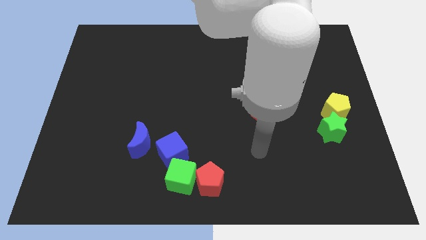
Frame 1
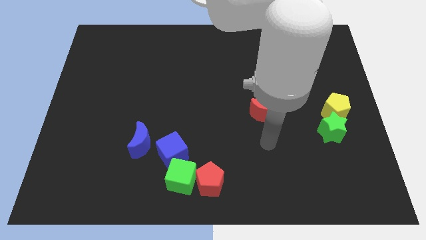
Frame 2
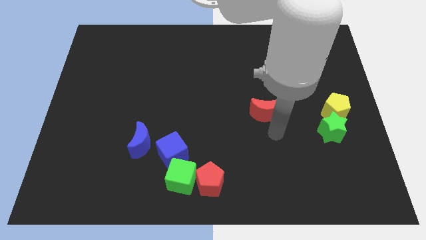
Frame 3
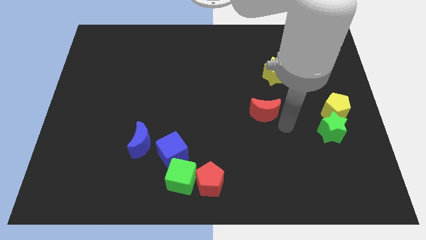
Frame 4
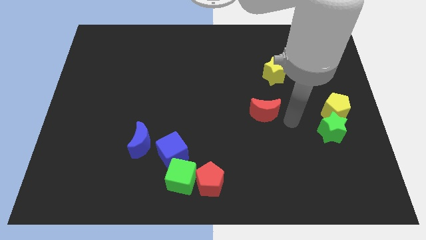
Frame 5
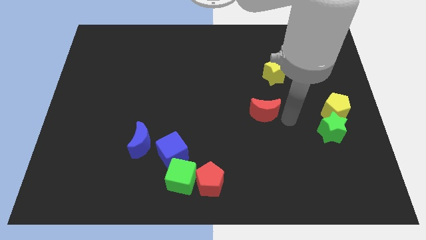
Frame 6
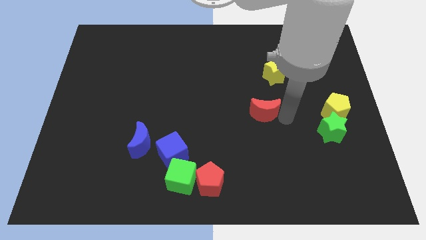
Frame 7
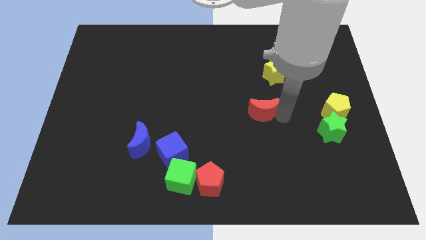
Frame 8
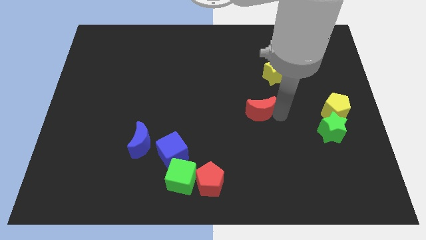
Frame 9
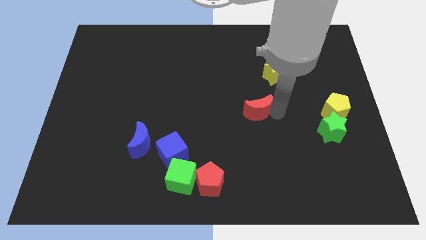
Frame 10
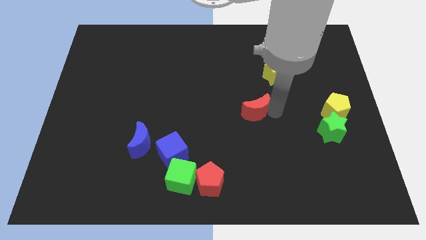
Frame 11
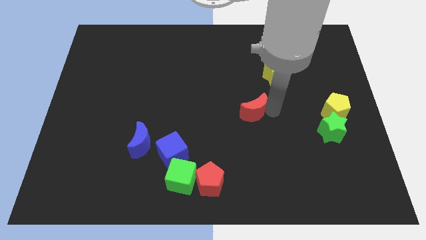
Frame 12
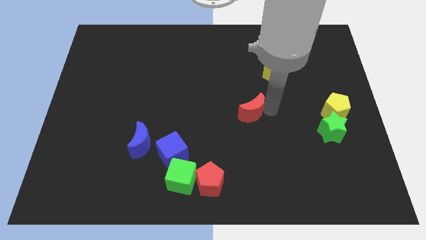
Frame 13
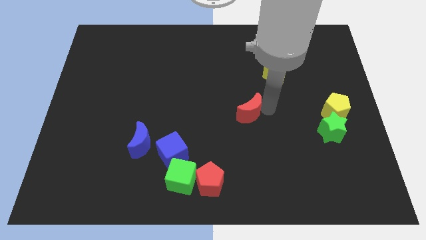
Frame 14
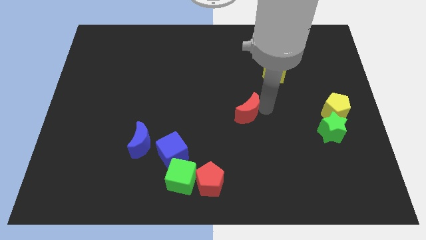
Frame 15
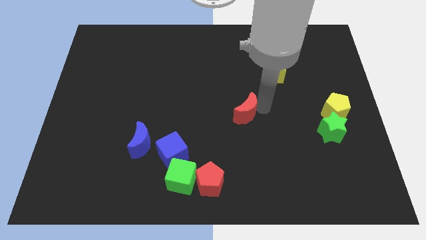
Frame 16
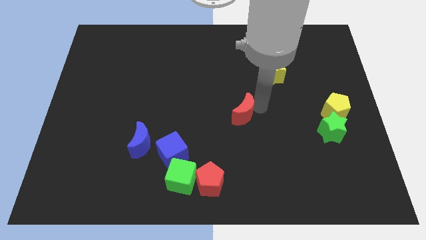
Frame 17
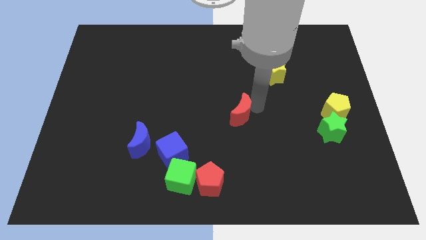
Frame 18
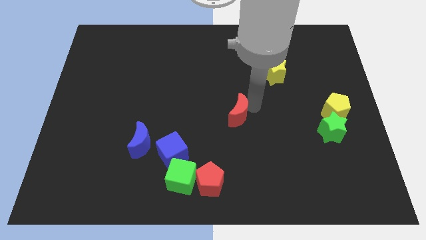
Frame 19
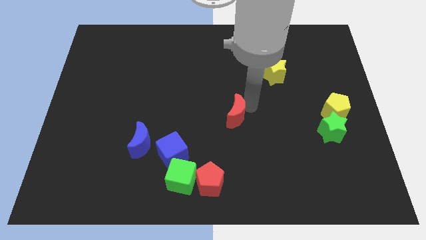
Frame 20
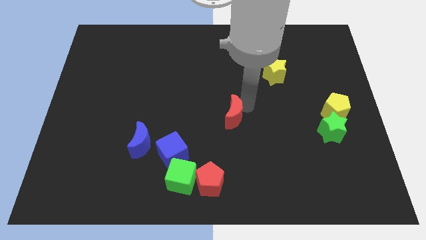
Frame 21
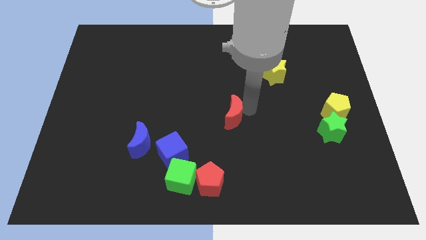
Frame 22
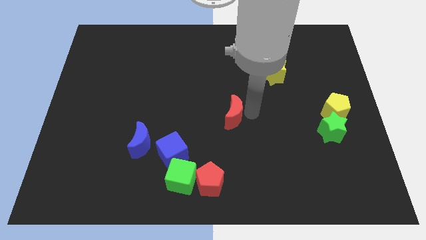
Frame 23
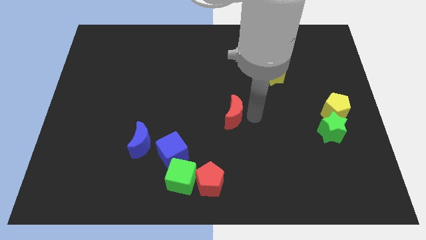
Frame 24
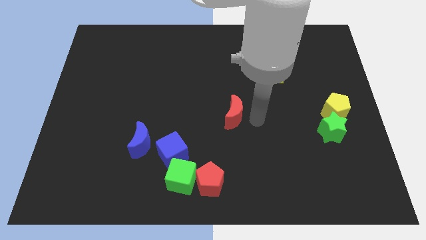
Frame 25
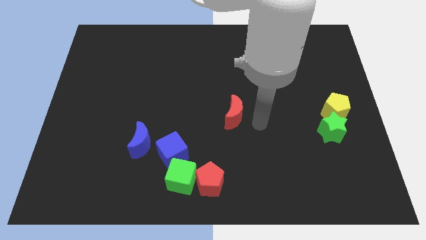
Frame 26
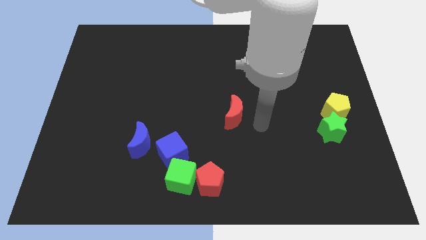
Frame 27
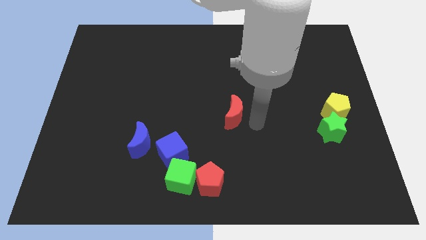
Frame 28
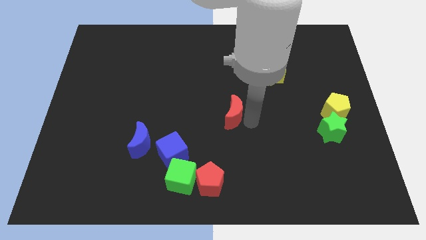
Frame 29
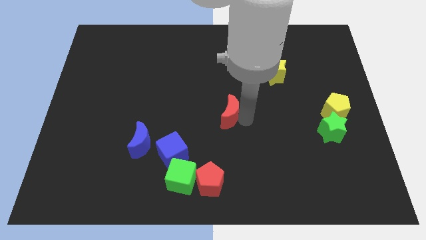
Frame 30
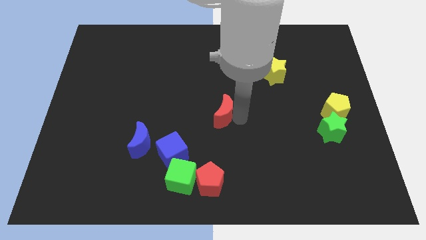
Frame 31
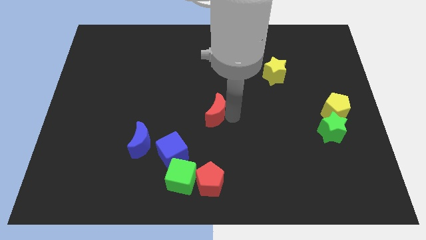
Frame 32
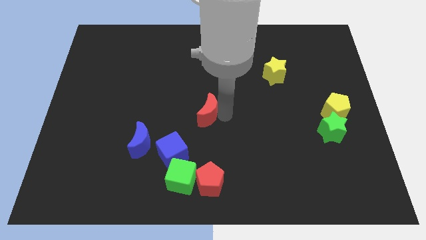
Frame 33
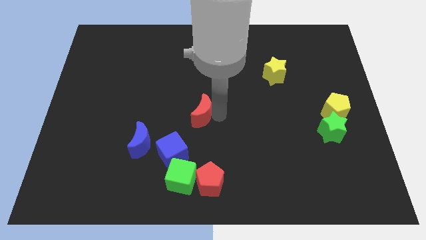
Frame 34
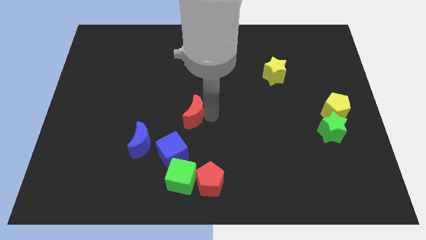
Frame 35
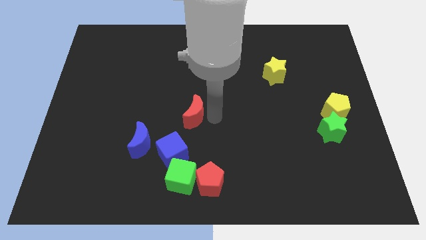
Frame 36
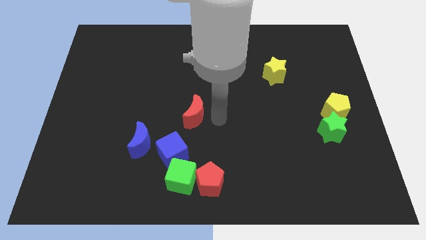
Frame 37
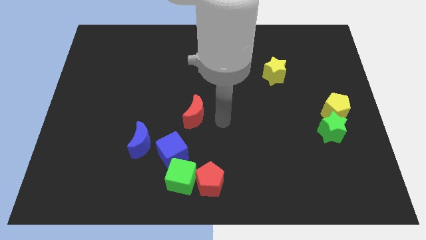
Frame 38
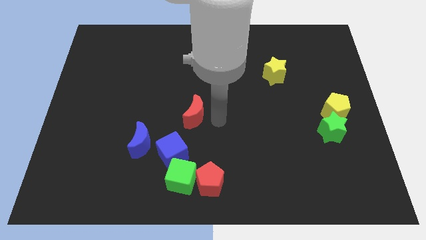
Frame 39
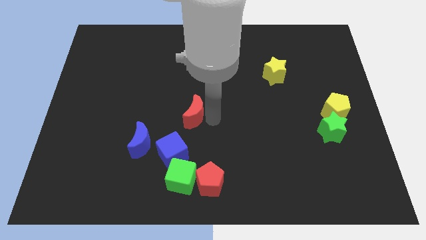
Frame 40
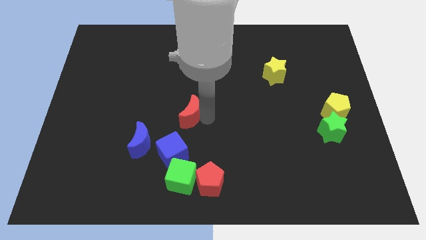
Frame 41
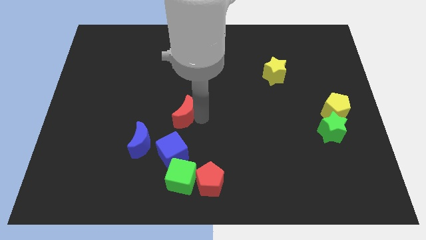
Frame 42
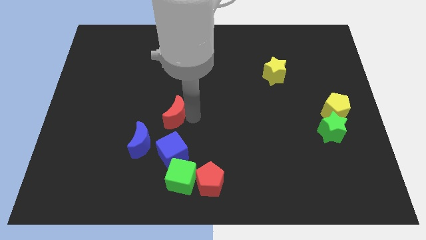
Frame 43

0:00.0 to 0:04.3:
move the red moon to the left

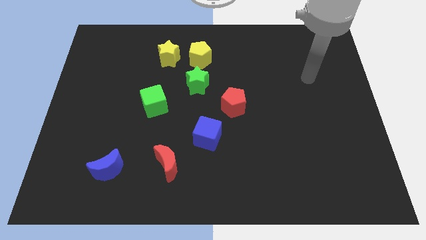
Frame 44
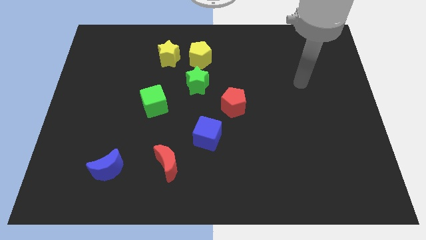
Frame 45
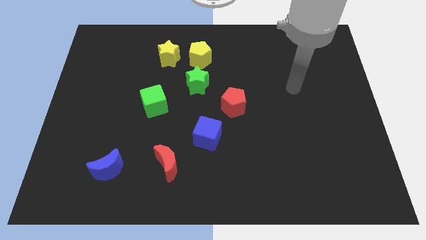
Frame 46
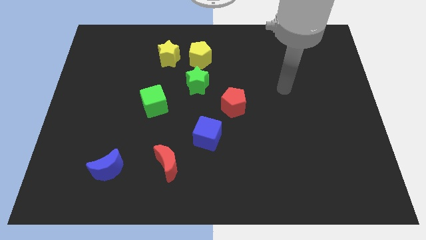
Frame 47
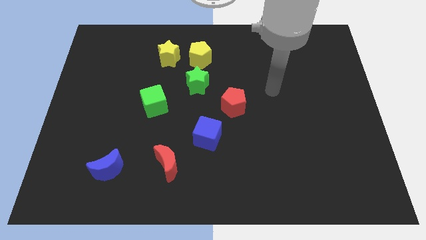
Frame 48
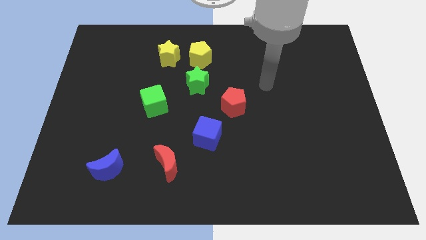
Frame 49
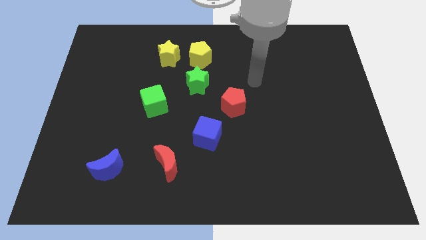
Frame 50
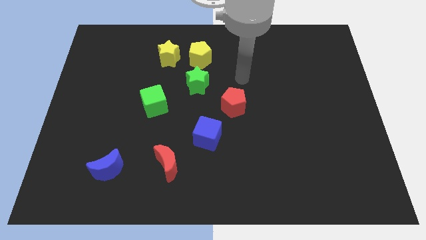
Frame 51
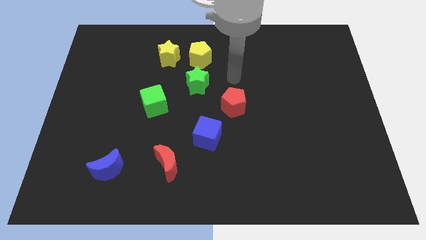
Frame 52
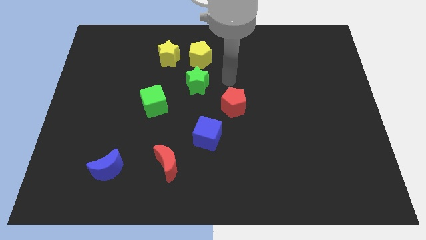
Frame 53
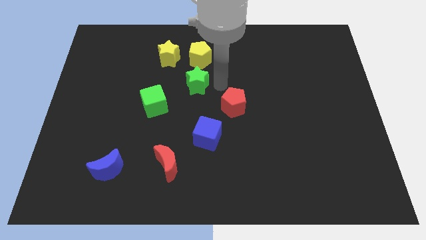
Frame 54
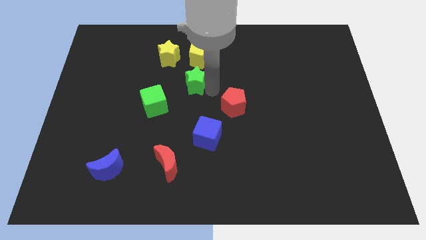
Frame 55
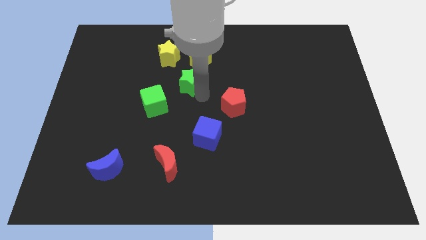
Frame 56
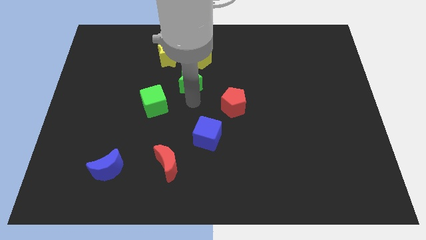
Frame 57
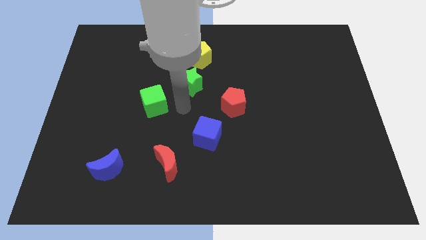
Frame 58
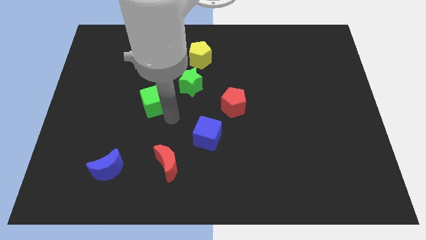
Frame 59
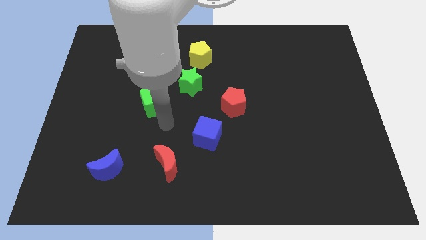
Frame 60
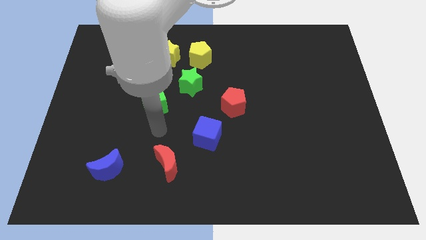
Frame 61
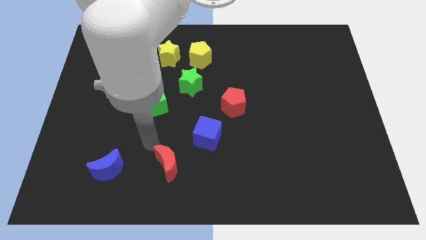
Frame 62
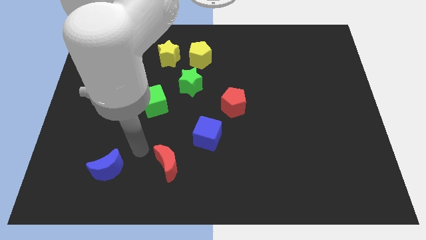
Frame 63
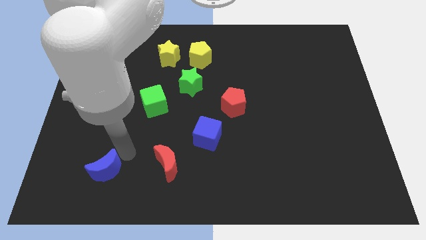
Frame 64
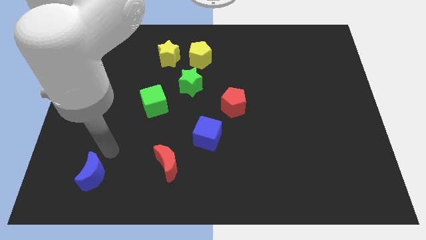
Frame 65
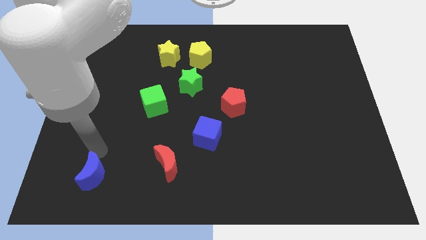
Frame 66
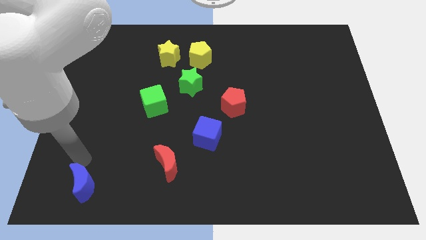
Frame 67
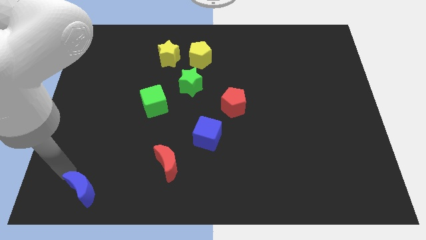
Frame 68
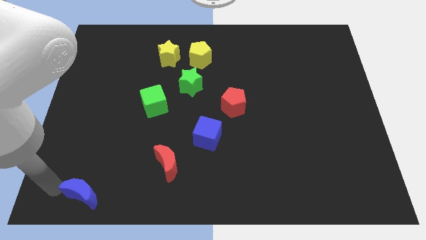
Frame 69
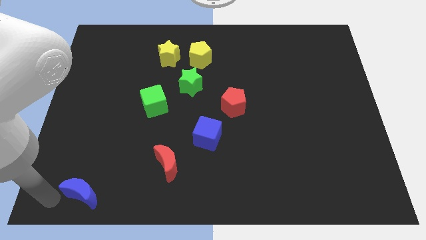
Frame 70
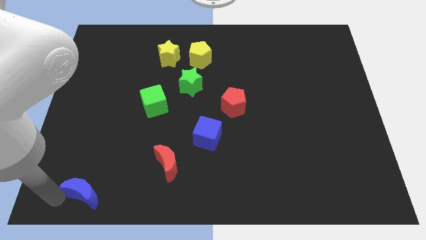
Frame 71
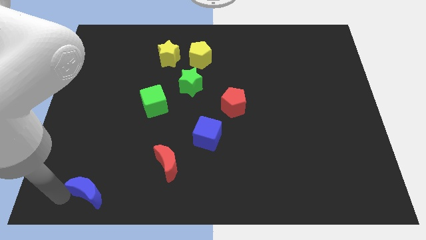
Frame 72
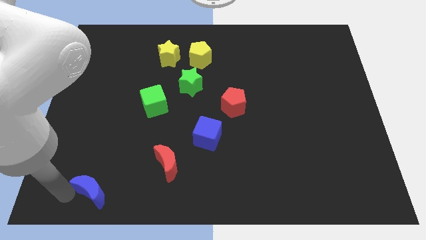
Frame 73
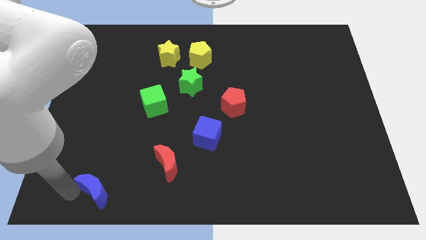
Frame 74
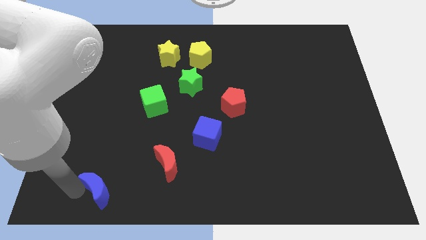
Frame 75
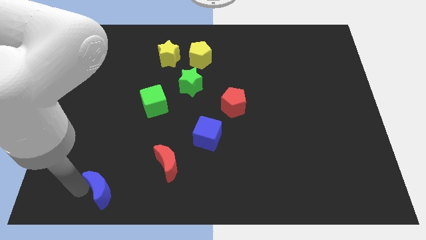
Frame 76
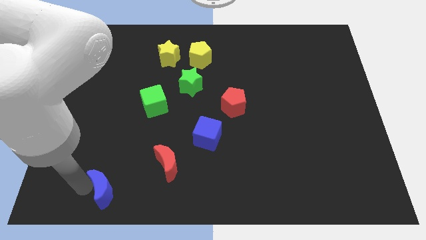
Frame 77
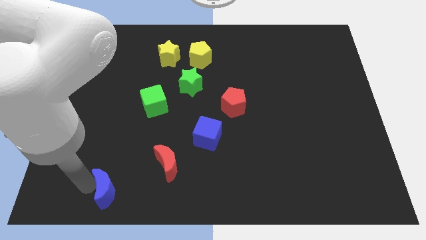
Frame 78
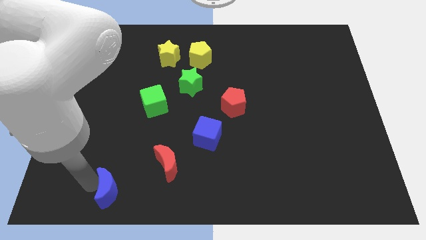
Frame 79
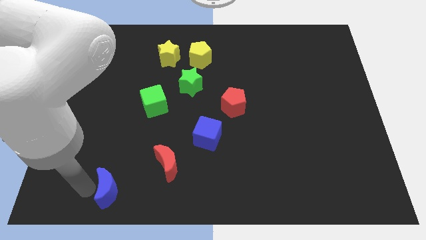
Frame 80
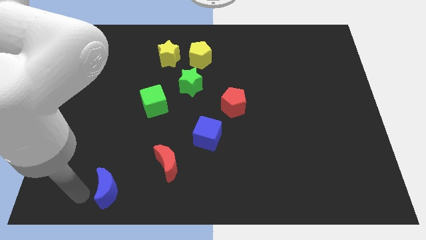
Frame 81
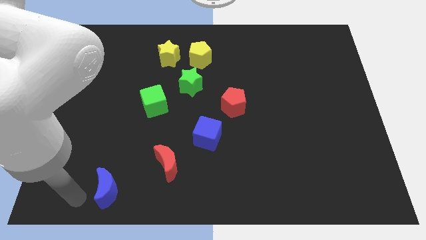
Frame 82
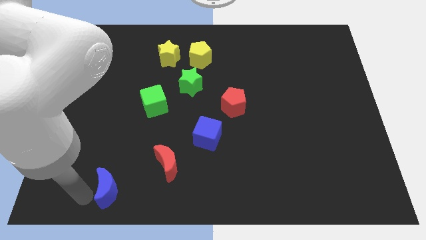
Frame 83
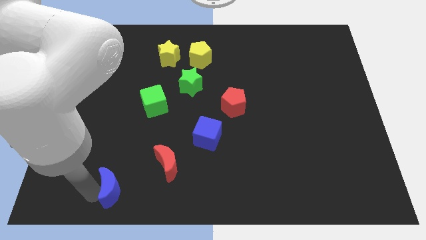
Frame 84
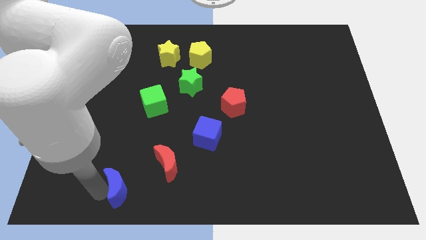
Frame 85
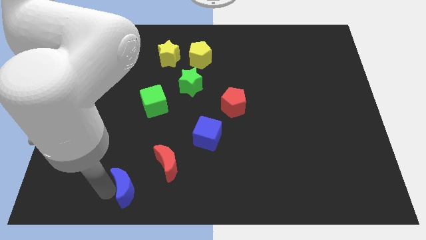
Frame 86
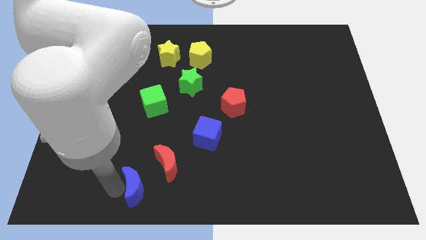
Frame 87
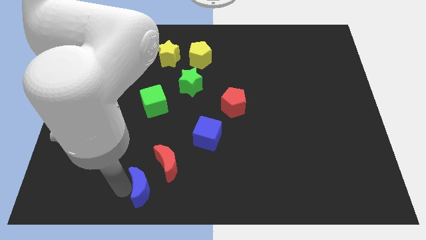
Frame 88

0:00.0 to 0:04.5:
slightly slide the blue moon to the right
